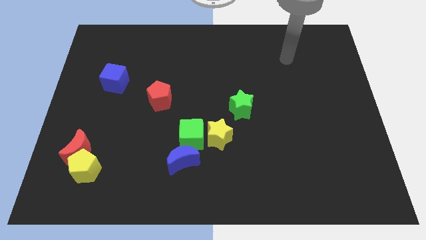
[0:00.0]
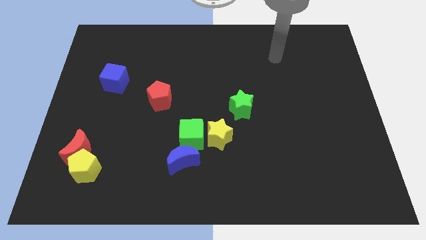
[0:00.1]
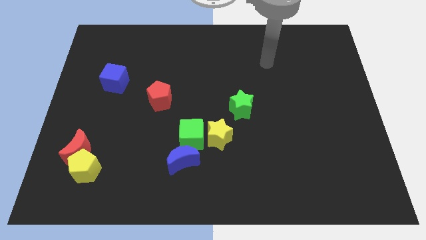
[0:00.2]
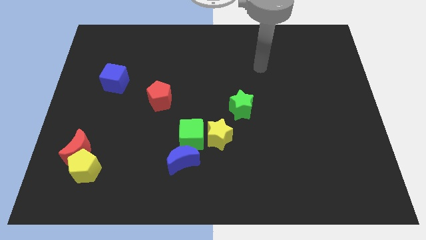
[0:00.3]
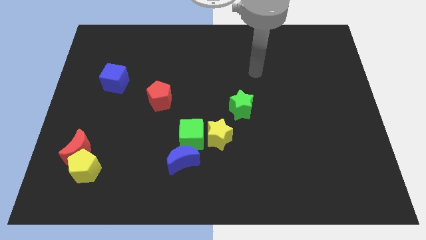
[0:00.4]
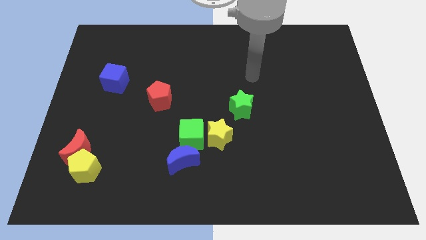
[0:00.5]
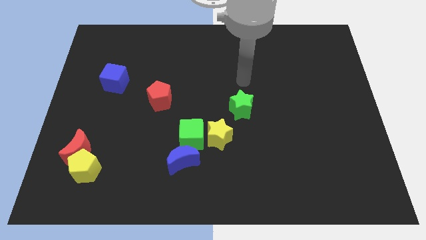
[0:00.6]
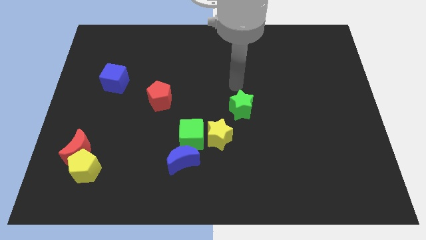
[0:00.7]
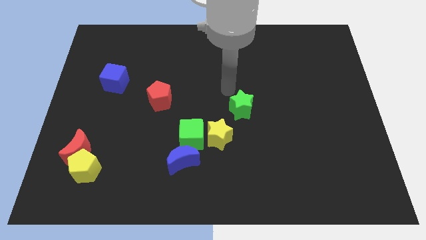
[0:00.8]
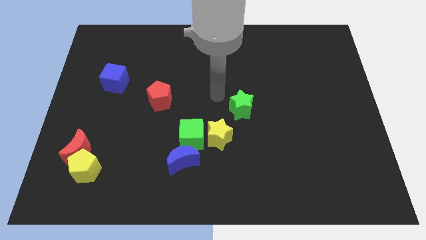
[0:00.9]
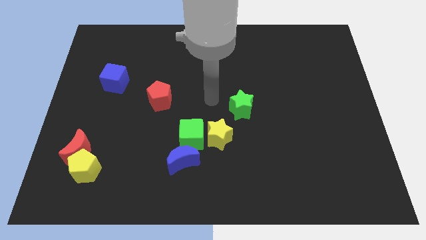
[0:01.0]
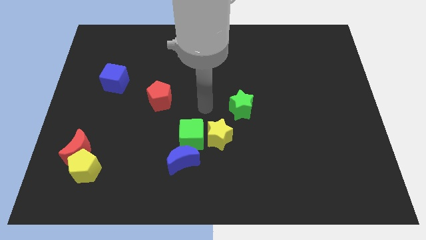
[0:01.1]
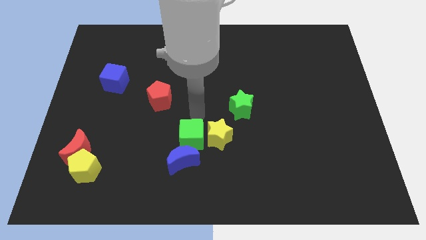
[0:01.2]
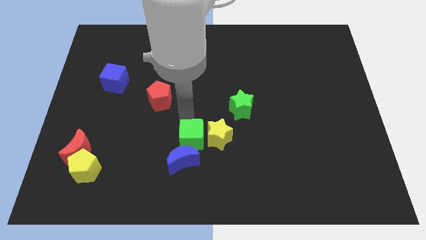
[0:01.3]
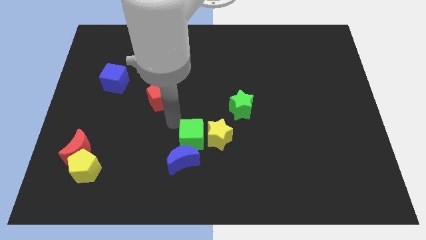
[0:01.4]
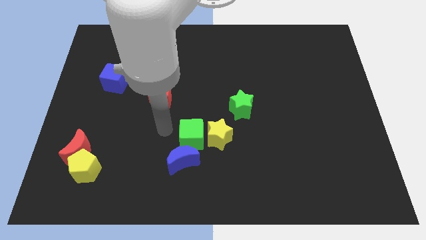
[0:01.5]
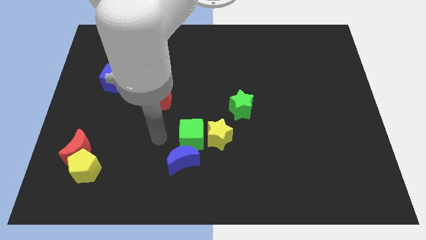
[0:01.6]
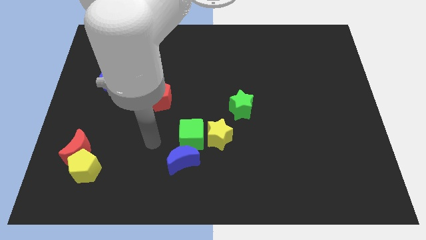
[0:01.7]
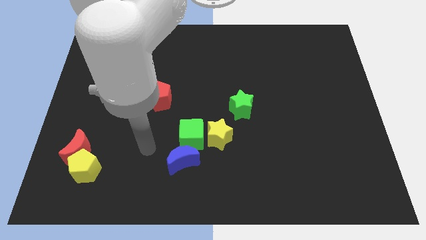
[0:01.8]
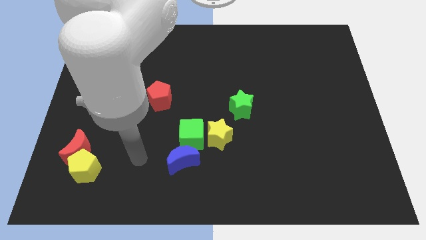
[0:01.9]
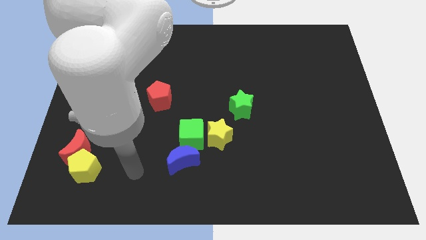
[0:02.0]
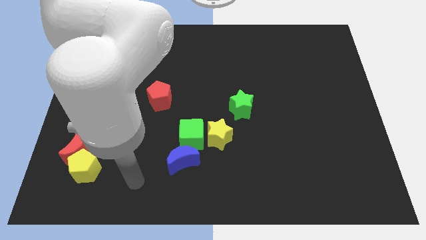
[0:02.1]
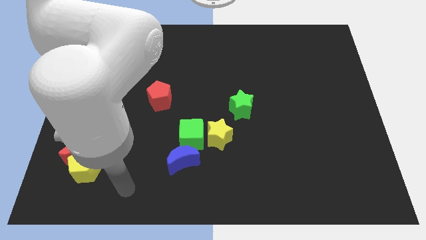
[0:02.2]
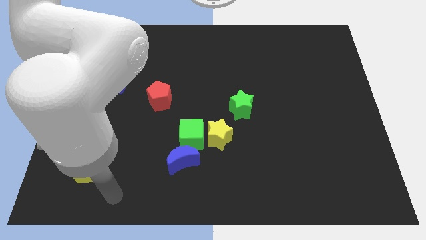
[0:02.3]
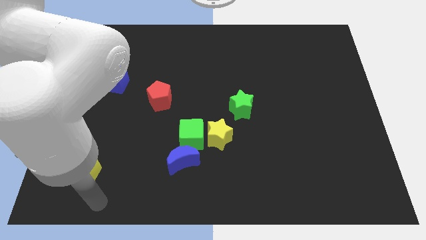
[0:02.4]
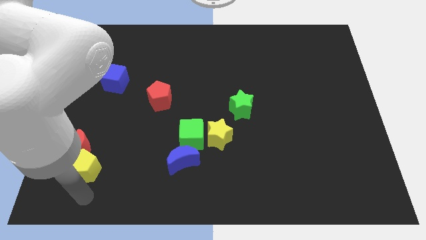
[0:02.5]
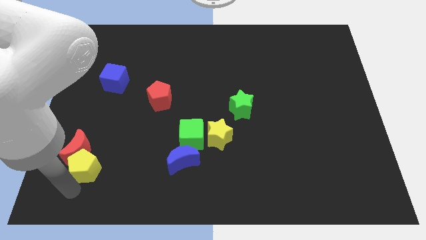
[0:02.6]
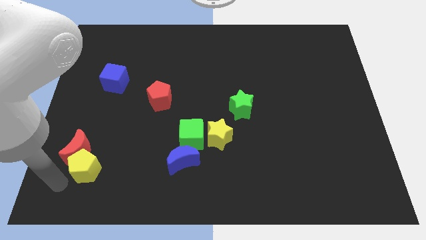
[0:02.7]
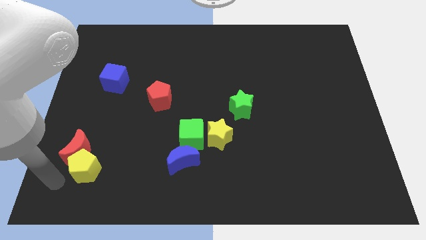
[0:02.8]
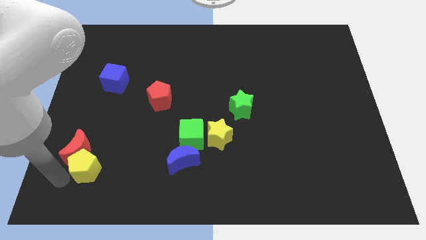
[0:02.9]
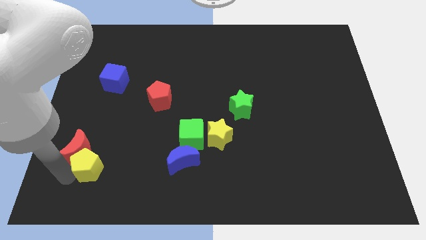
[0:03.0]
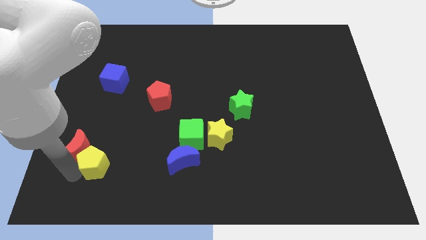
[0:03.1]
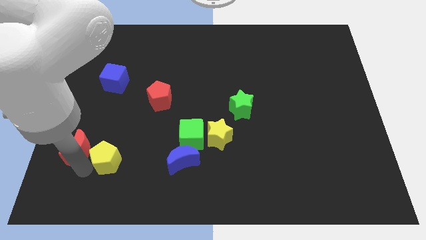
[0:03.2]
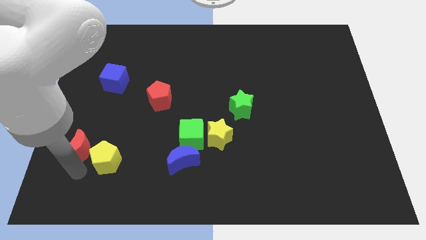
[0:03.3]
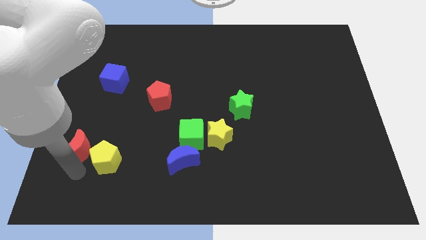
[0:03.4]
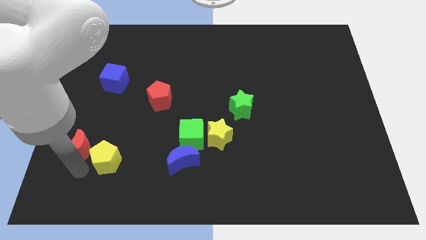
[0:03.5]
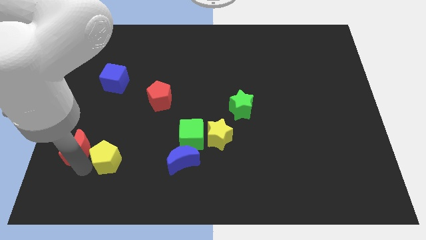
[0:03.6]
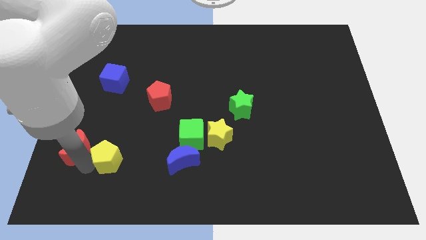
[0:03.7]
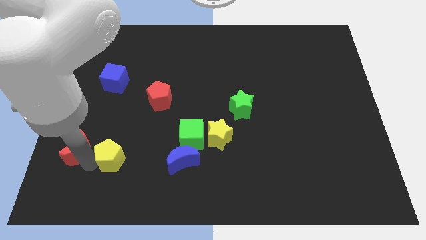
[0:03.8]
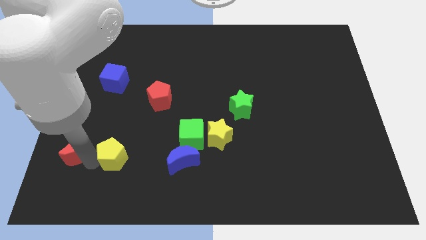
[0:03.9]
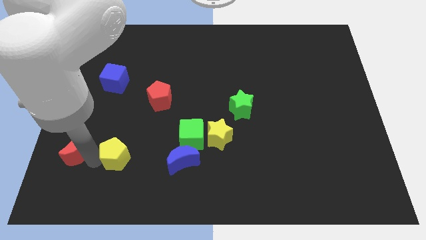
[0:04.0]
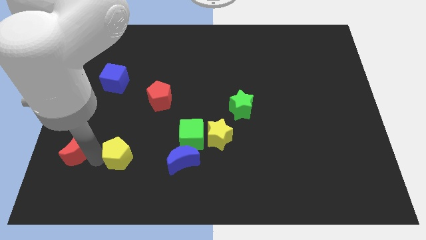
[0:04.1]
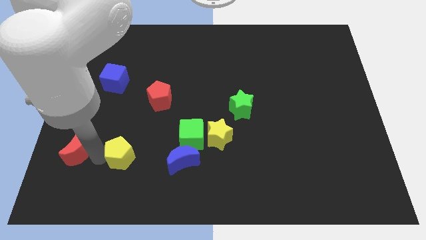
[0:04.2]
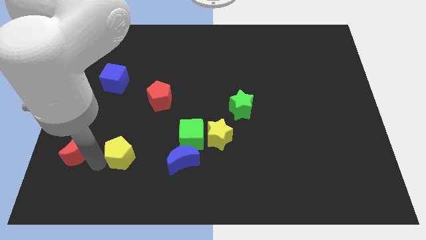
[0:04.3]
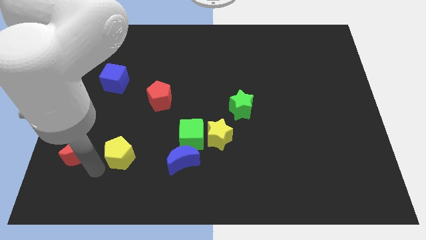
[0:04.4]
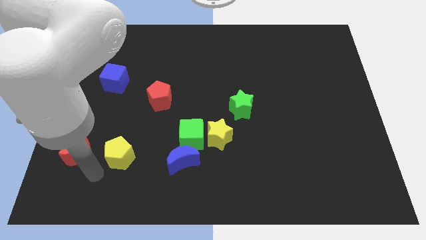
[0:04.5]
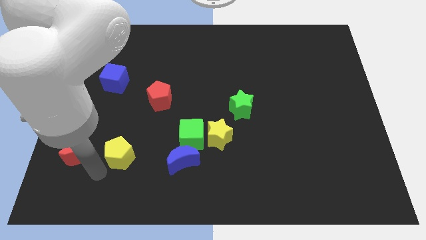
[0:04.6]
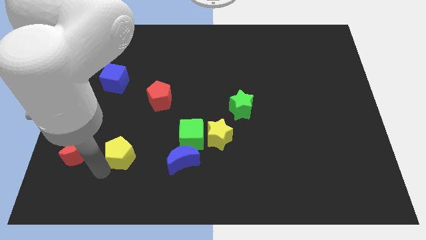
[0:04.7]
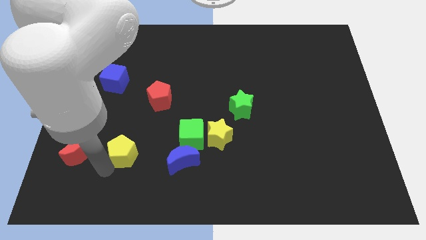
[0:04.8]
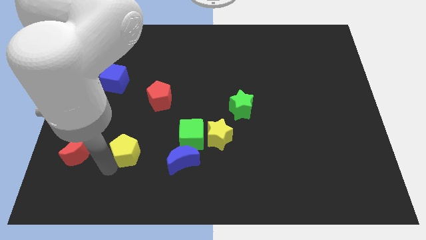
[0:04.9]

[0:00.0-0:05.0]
put the yellow pentagon to the left of the green cube
